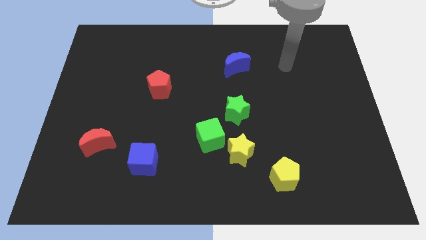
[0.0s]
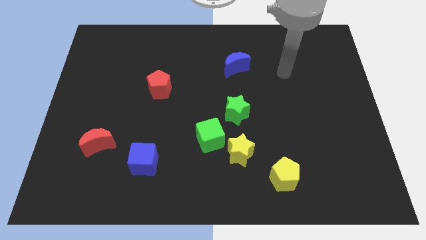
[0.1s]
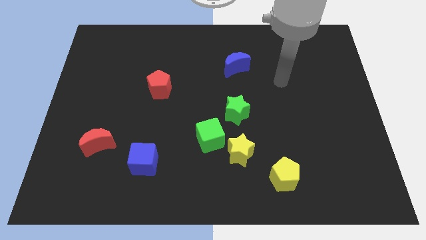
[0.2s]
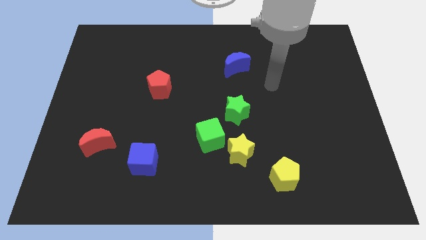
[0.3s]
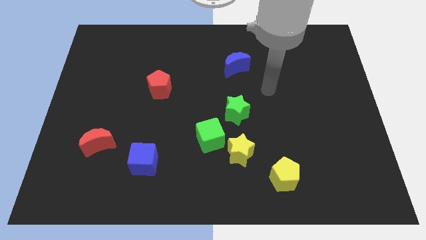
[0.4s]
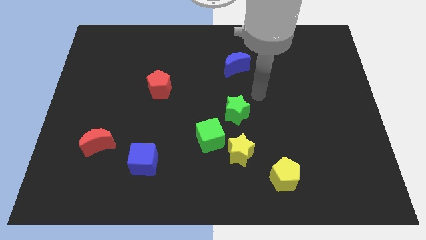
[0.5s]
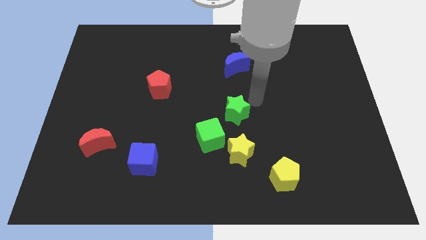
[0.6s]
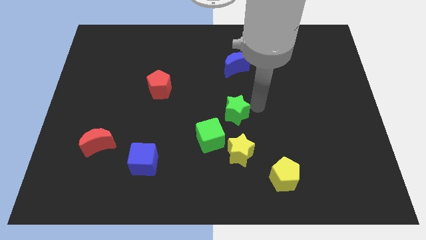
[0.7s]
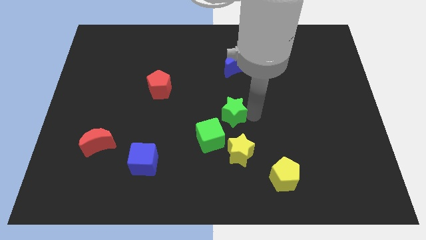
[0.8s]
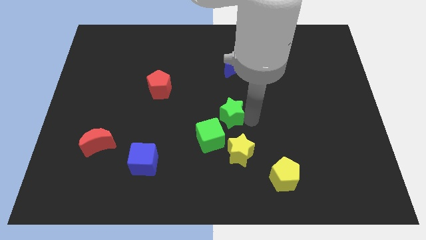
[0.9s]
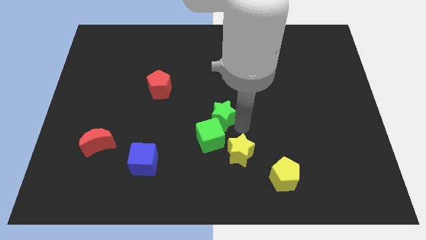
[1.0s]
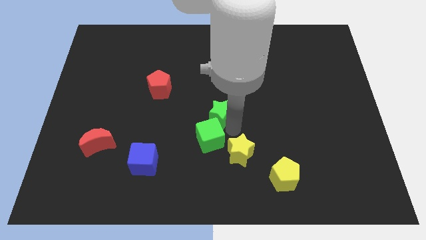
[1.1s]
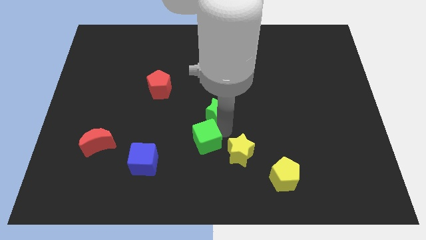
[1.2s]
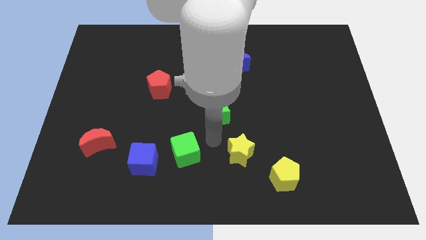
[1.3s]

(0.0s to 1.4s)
move the yellow star away from the green cube

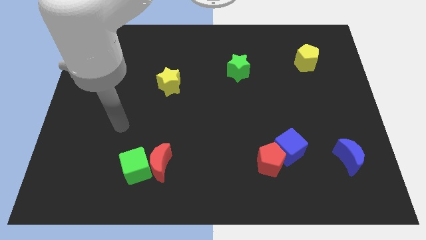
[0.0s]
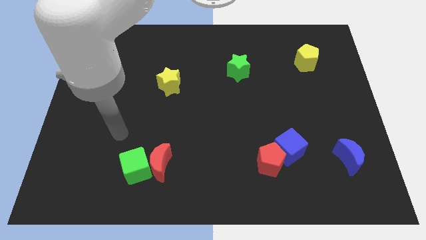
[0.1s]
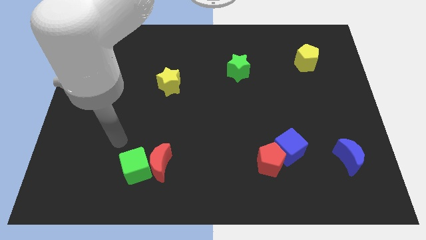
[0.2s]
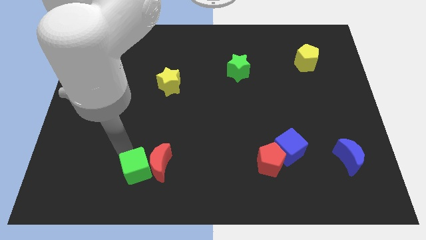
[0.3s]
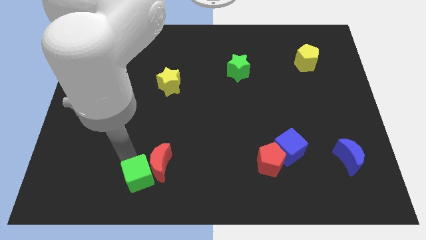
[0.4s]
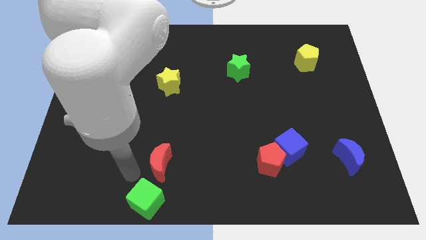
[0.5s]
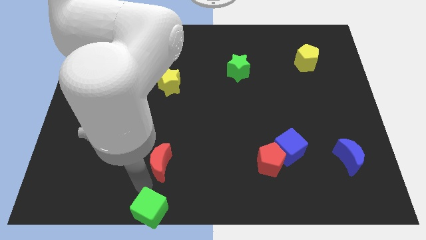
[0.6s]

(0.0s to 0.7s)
pull the red moon apart from the green cube

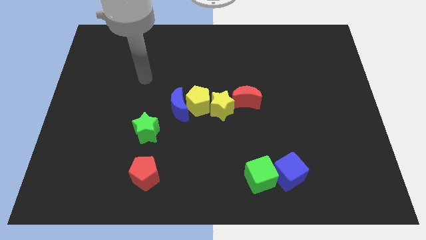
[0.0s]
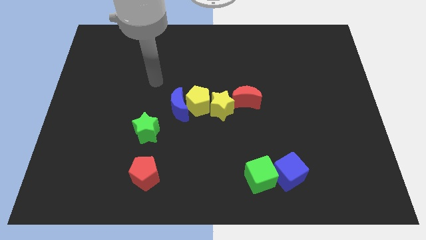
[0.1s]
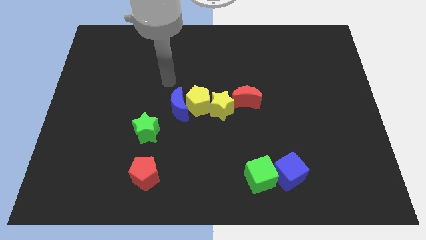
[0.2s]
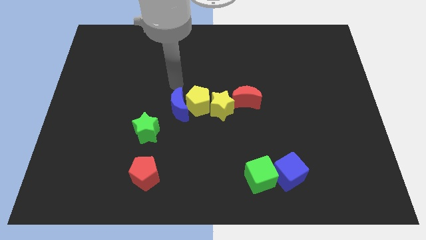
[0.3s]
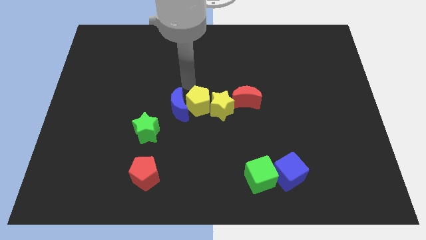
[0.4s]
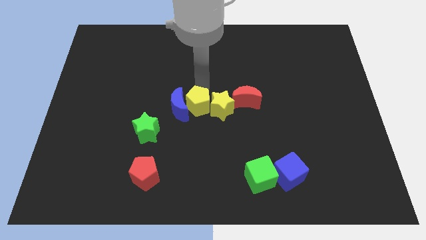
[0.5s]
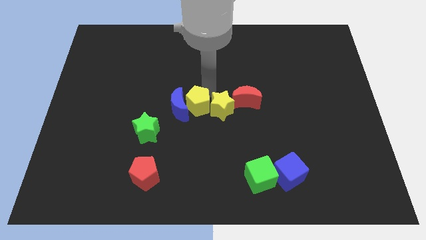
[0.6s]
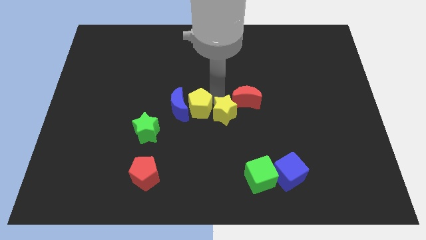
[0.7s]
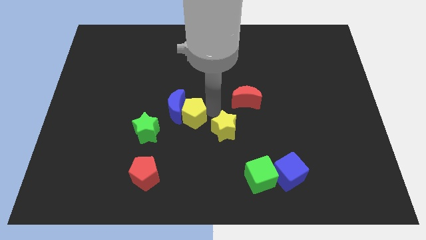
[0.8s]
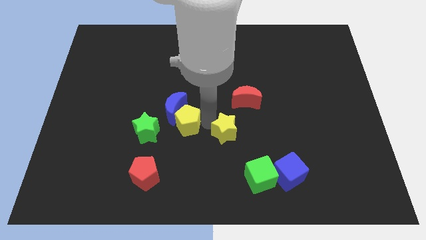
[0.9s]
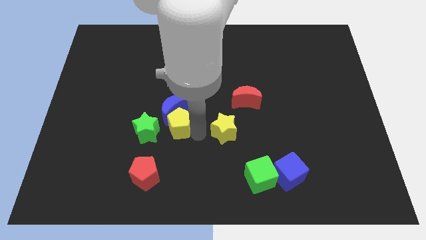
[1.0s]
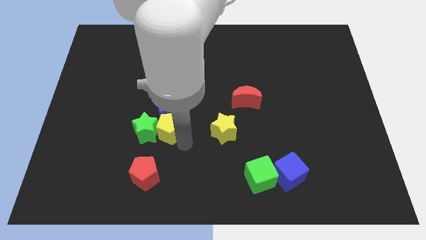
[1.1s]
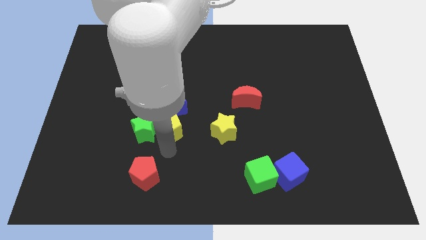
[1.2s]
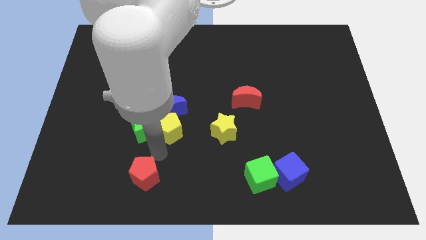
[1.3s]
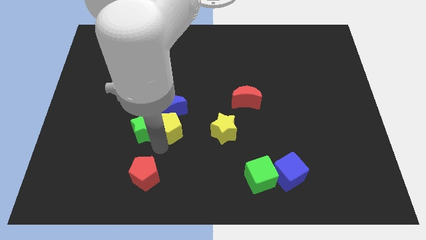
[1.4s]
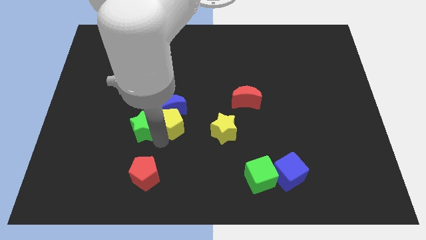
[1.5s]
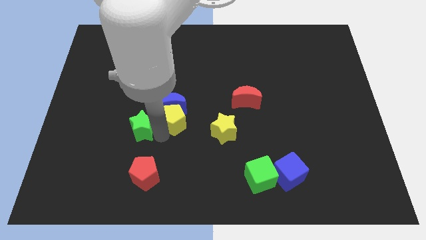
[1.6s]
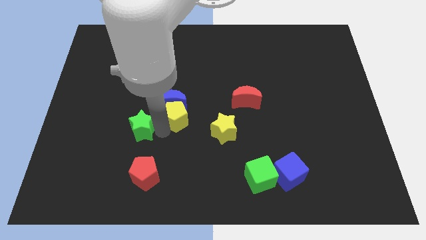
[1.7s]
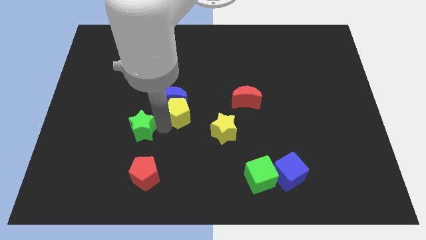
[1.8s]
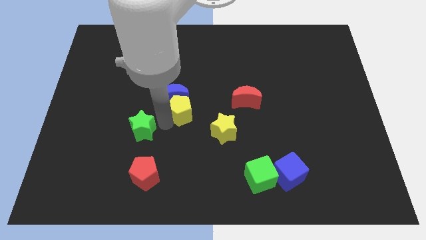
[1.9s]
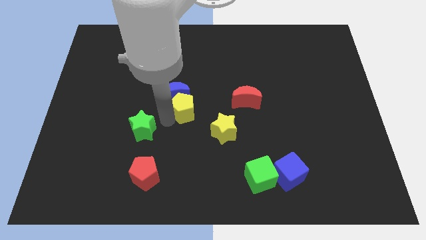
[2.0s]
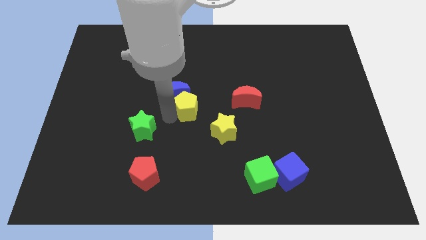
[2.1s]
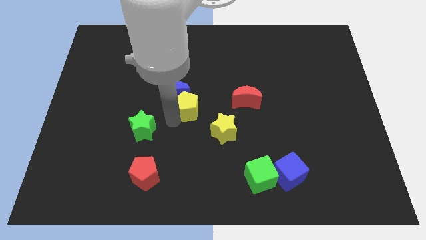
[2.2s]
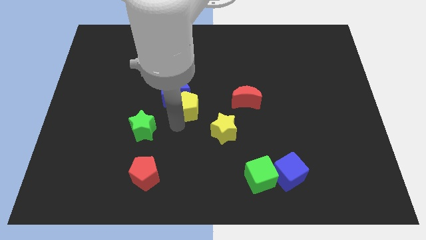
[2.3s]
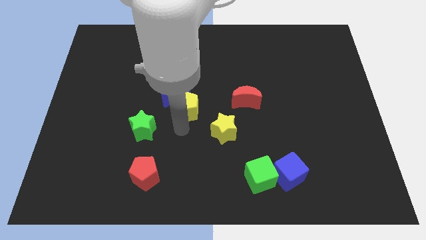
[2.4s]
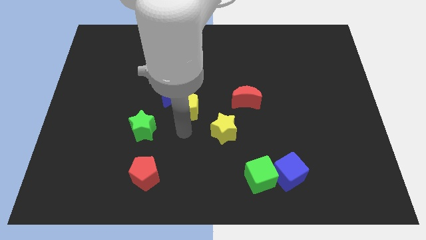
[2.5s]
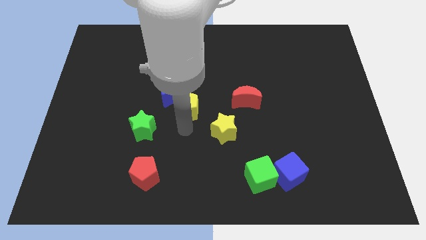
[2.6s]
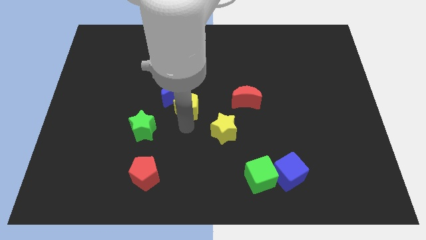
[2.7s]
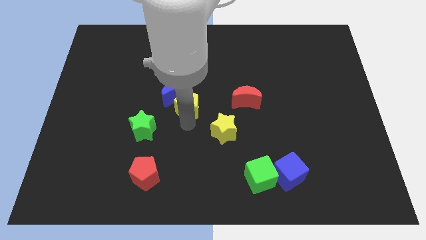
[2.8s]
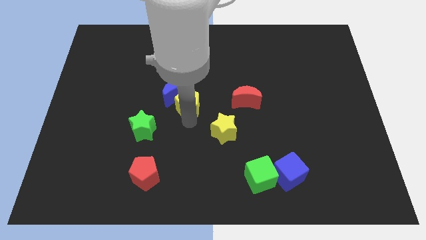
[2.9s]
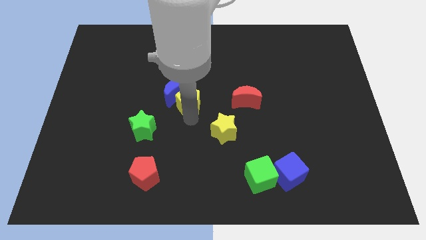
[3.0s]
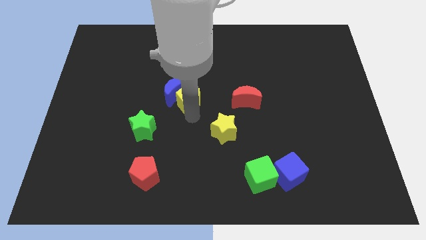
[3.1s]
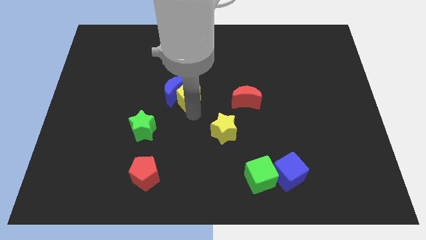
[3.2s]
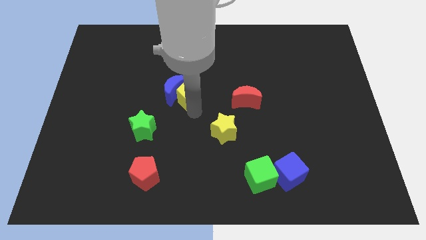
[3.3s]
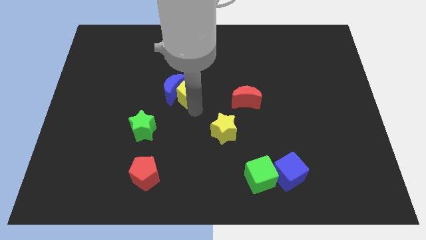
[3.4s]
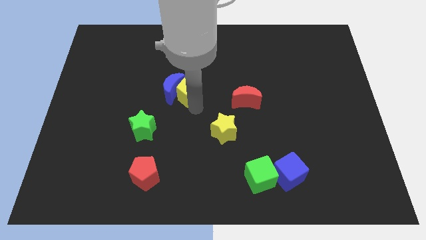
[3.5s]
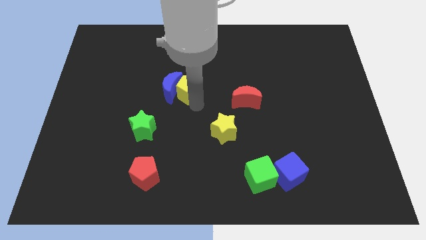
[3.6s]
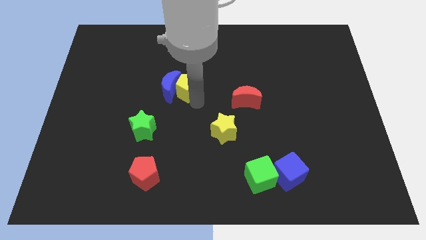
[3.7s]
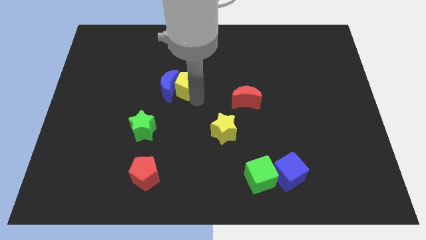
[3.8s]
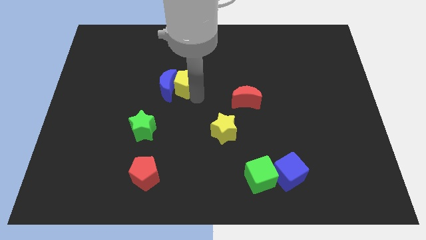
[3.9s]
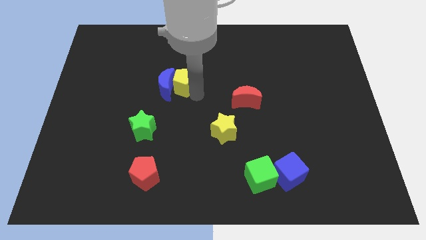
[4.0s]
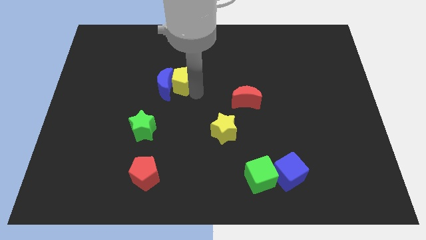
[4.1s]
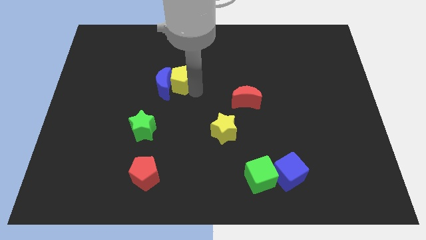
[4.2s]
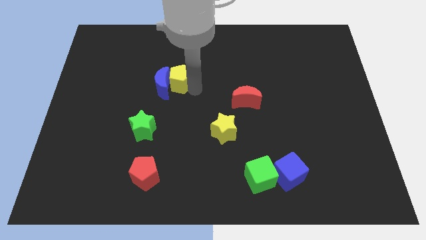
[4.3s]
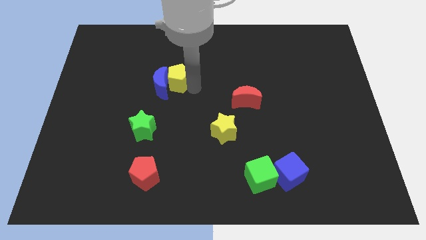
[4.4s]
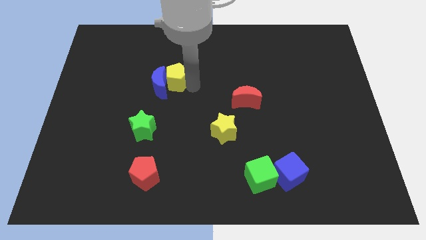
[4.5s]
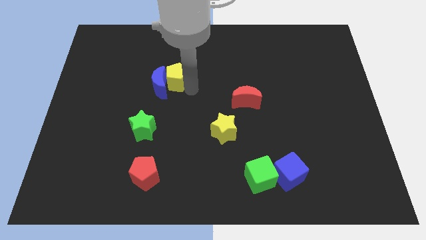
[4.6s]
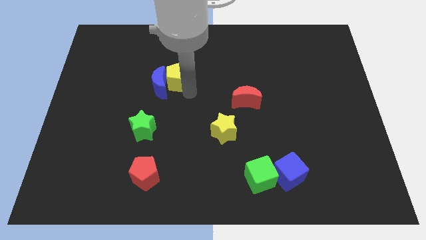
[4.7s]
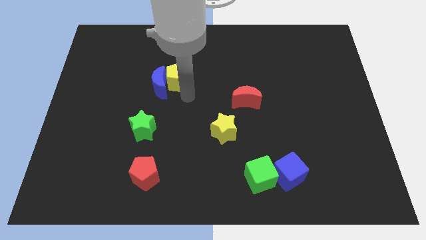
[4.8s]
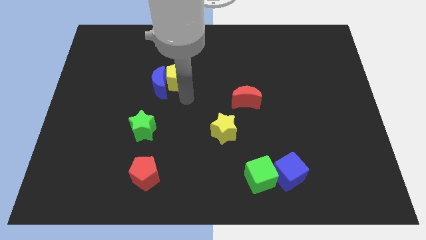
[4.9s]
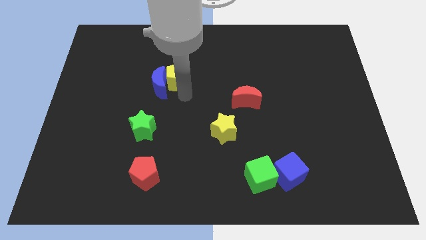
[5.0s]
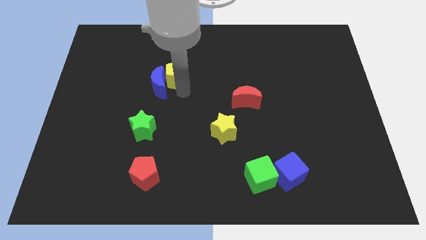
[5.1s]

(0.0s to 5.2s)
move the yellow pentagon away from the blue moon and yellow star

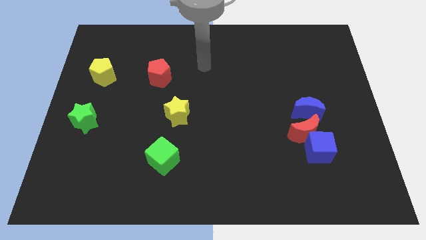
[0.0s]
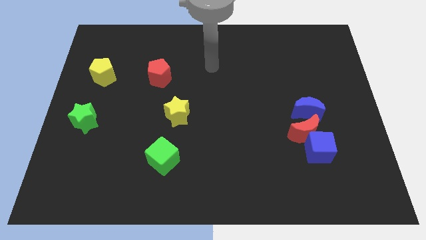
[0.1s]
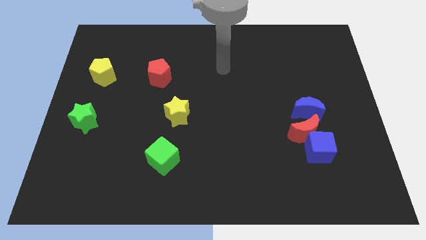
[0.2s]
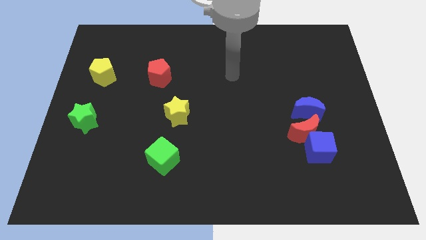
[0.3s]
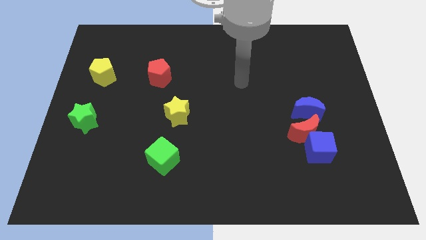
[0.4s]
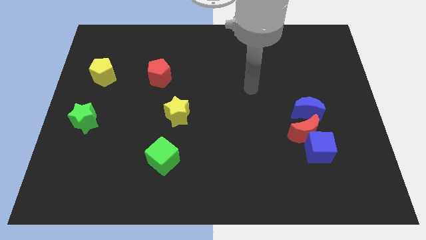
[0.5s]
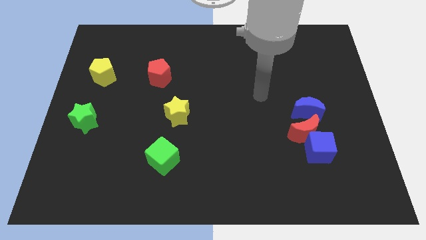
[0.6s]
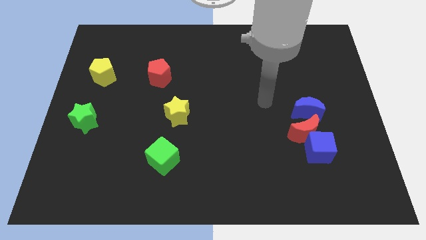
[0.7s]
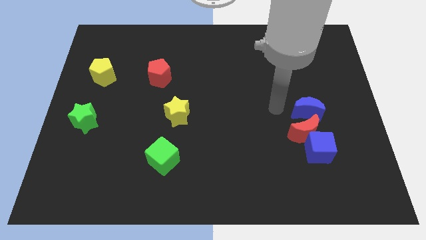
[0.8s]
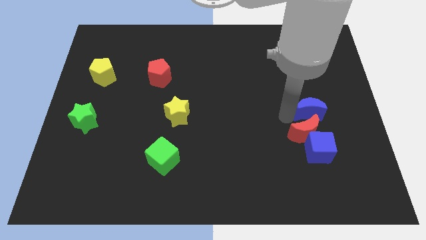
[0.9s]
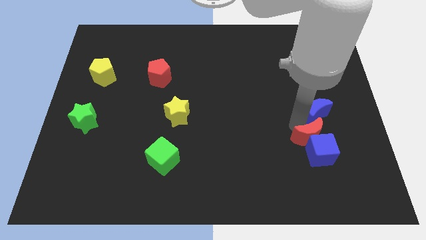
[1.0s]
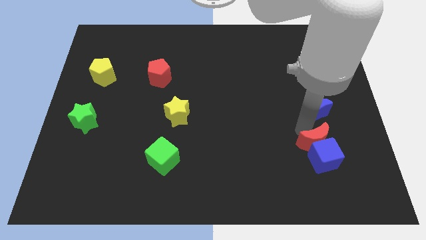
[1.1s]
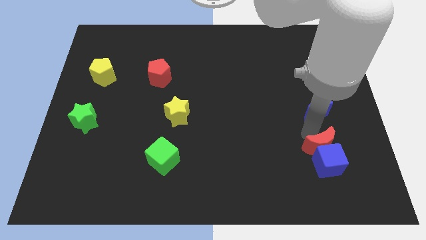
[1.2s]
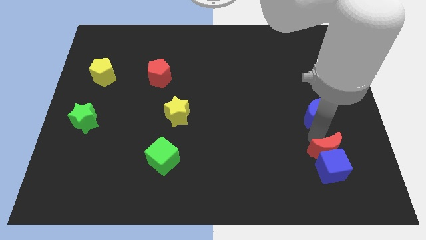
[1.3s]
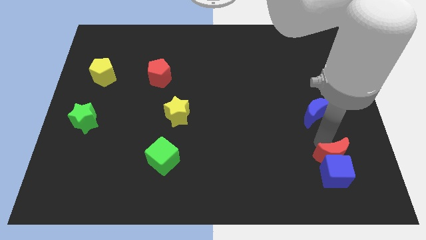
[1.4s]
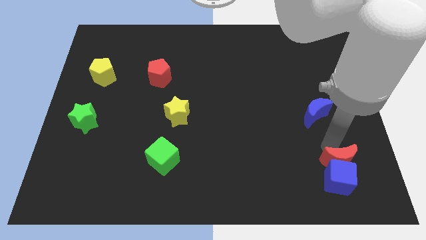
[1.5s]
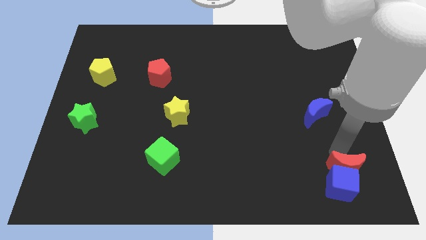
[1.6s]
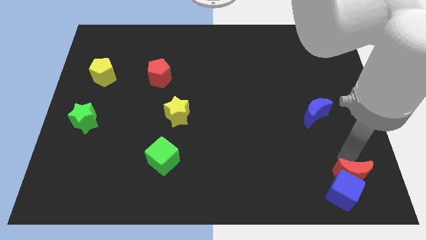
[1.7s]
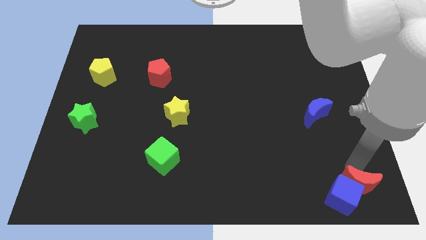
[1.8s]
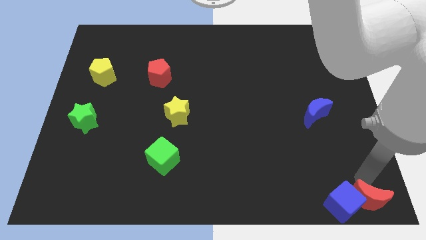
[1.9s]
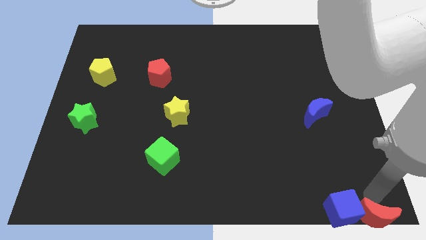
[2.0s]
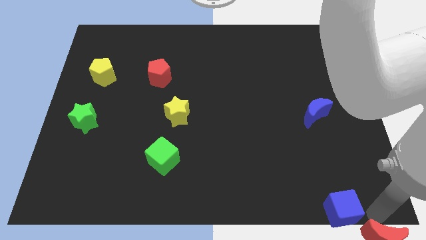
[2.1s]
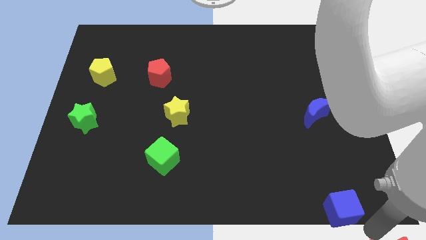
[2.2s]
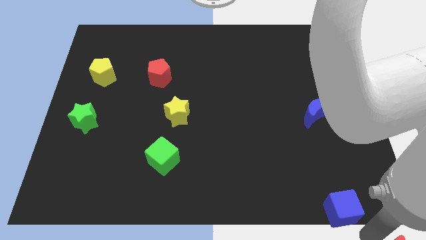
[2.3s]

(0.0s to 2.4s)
separate the blue cube from the red moon
